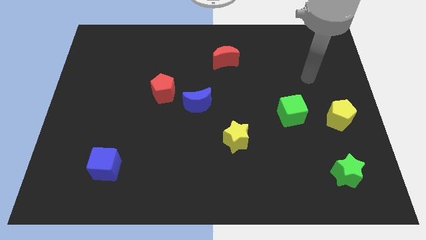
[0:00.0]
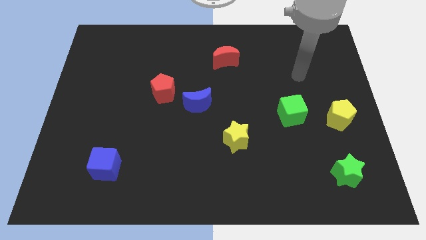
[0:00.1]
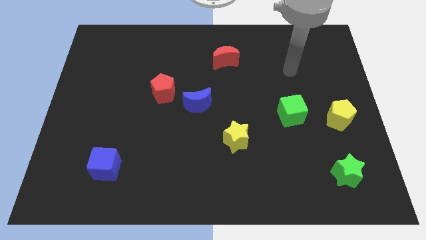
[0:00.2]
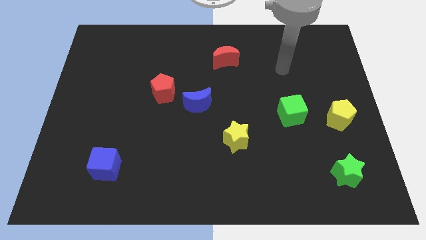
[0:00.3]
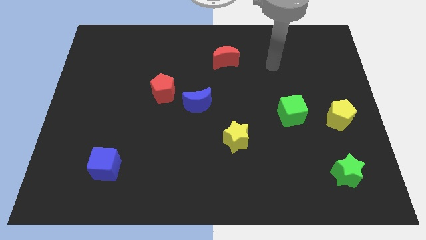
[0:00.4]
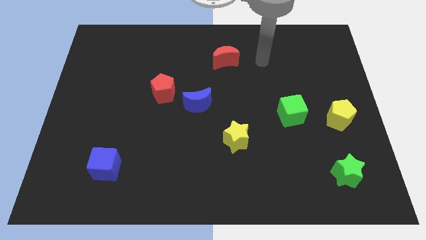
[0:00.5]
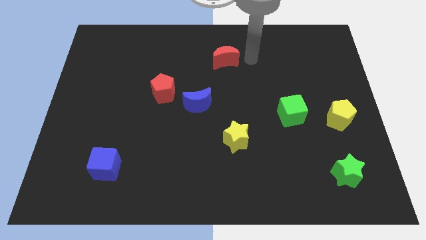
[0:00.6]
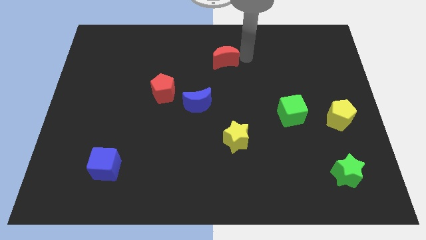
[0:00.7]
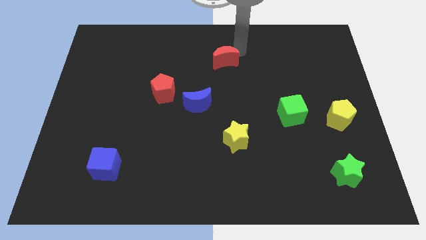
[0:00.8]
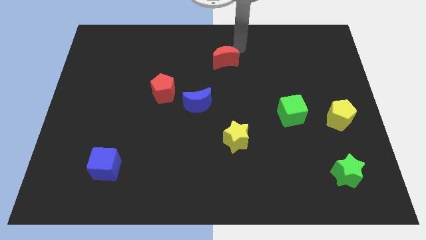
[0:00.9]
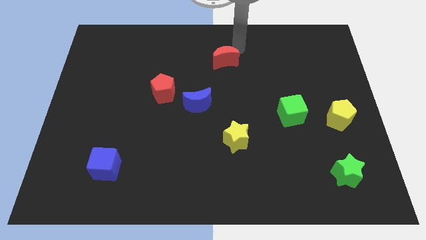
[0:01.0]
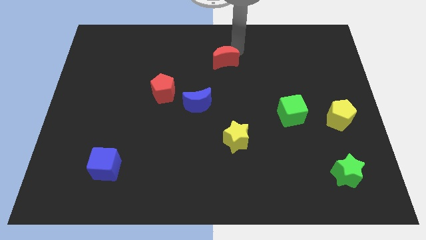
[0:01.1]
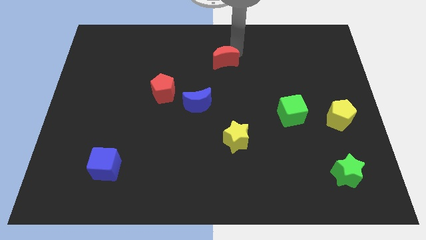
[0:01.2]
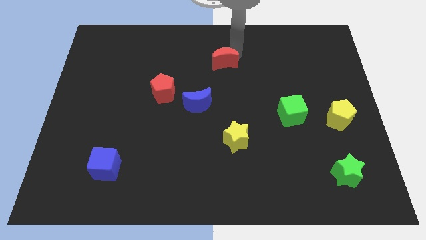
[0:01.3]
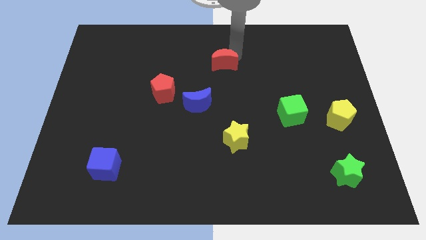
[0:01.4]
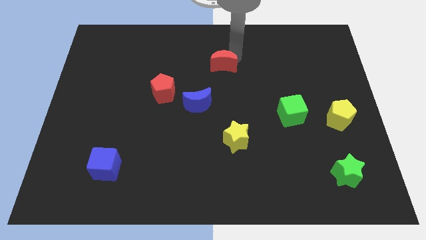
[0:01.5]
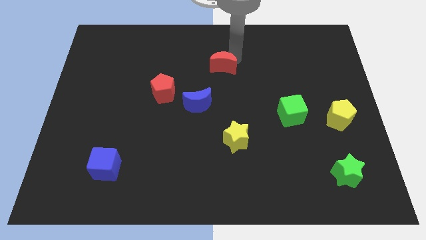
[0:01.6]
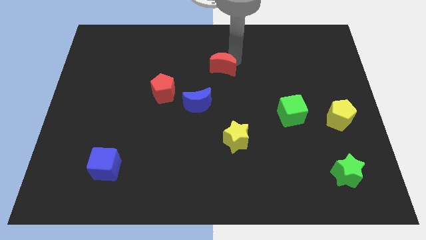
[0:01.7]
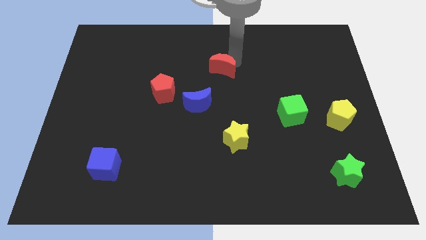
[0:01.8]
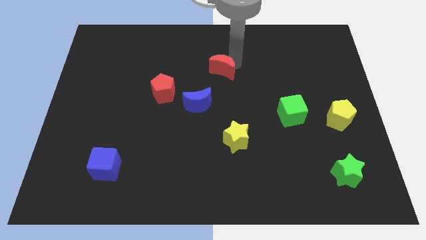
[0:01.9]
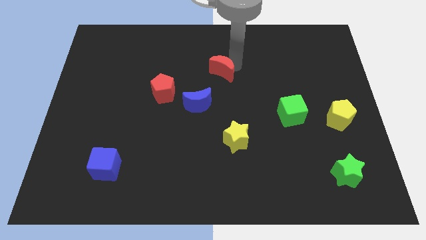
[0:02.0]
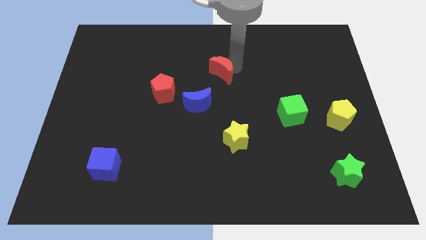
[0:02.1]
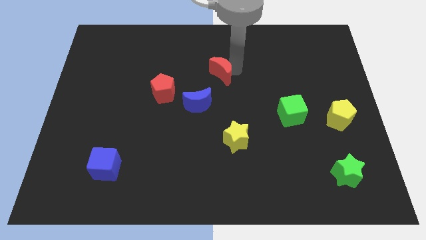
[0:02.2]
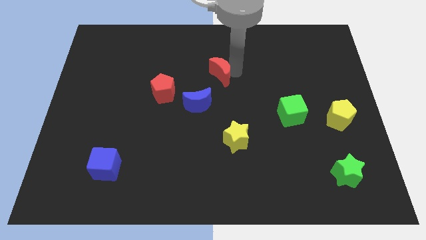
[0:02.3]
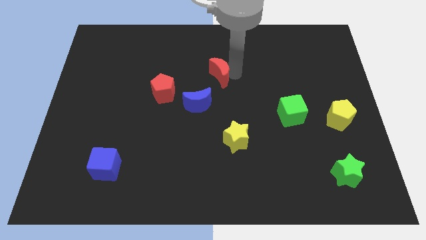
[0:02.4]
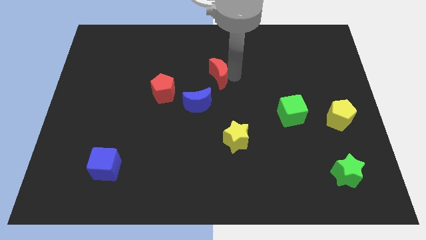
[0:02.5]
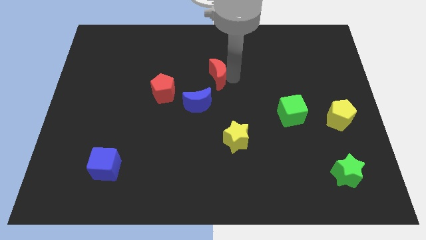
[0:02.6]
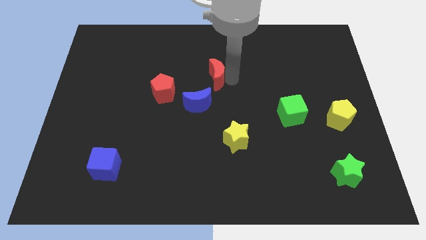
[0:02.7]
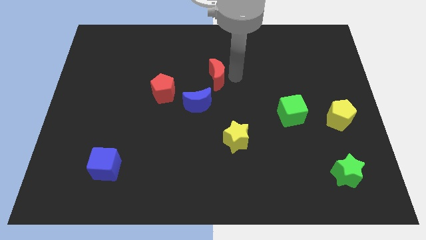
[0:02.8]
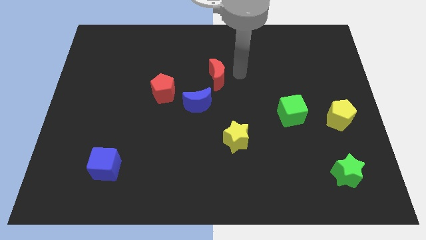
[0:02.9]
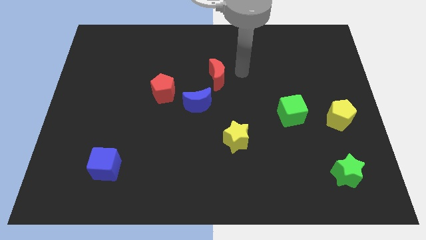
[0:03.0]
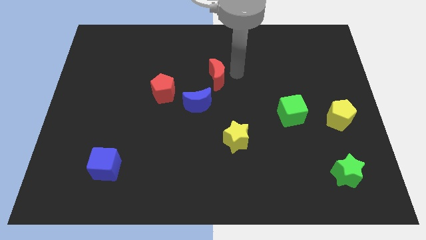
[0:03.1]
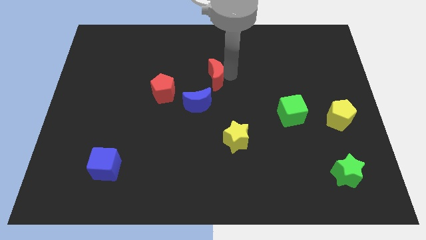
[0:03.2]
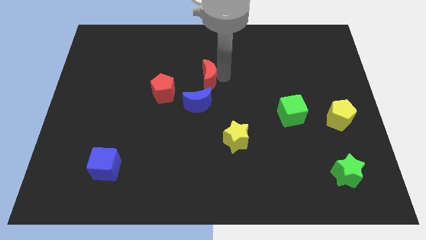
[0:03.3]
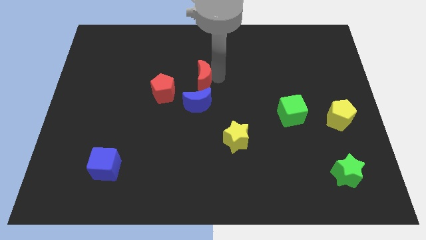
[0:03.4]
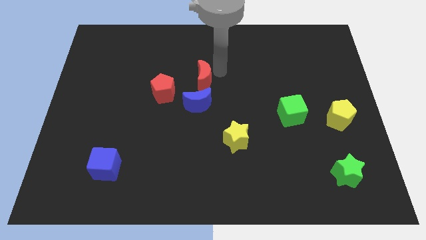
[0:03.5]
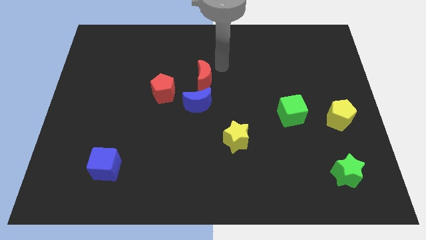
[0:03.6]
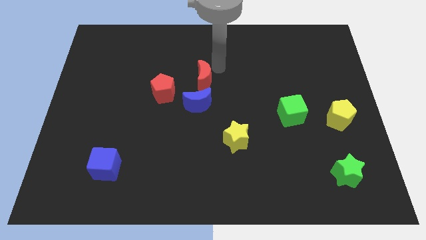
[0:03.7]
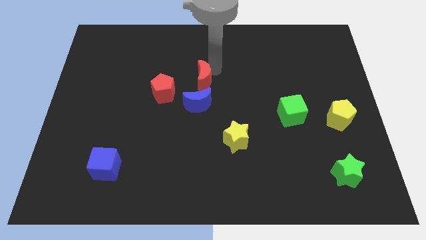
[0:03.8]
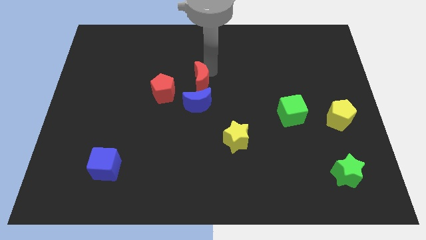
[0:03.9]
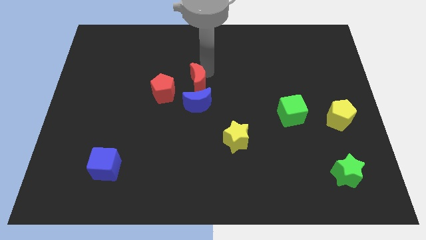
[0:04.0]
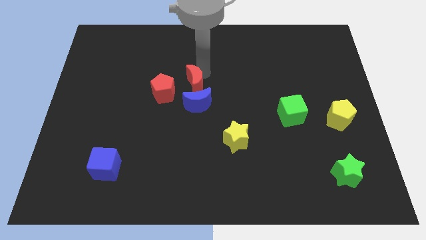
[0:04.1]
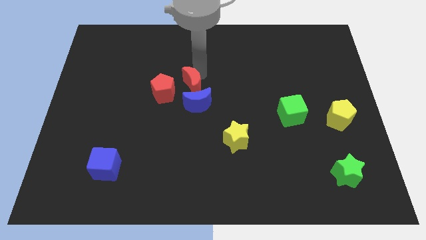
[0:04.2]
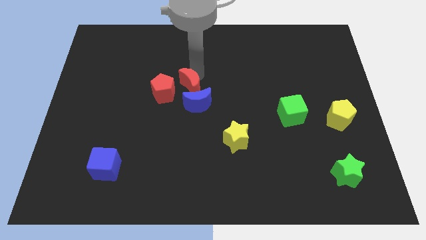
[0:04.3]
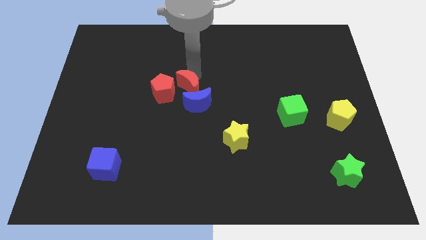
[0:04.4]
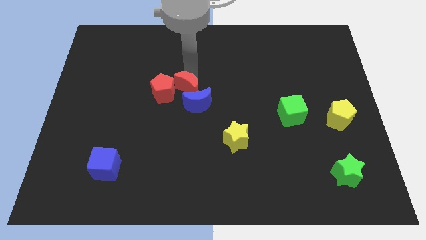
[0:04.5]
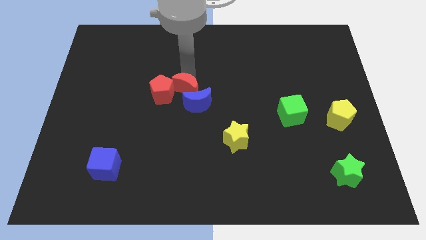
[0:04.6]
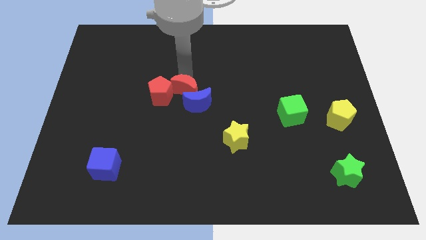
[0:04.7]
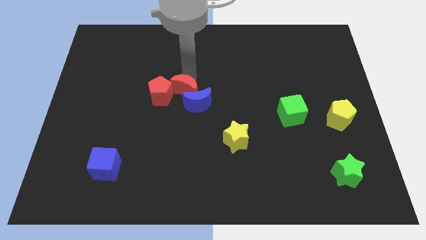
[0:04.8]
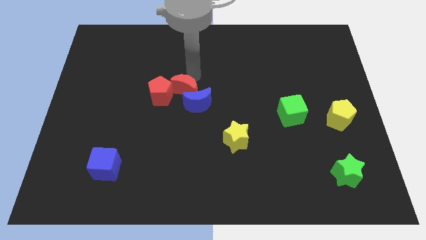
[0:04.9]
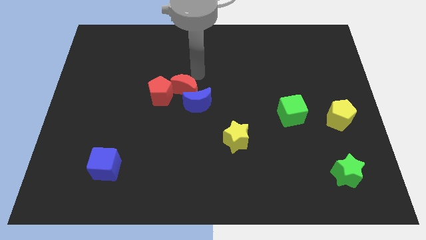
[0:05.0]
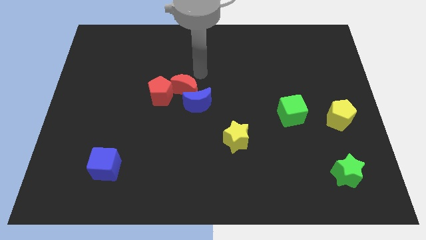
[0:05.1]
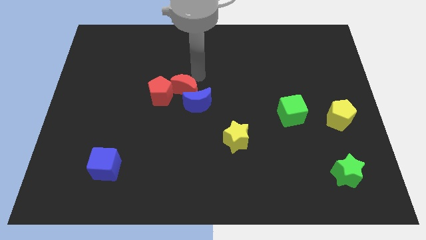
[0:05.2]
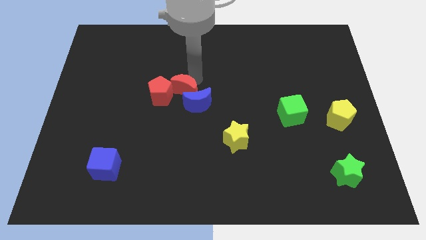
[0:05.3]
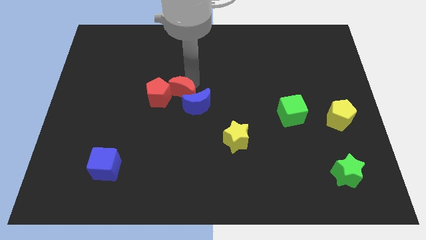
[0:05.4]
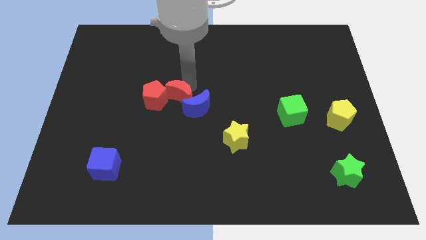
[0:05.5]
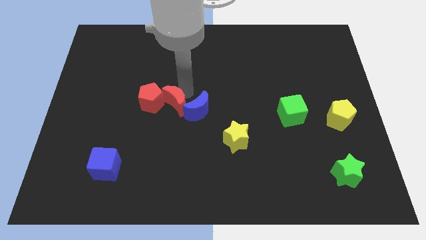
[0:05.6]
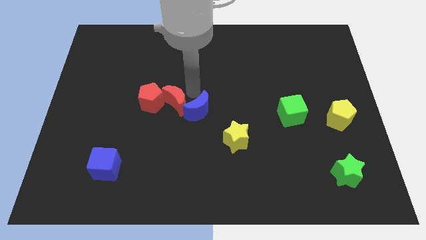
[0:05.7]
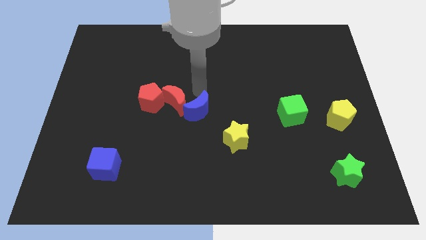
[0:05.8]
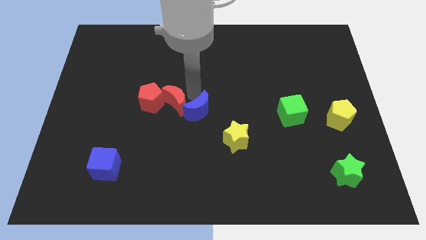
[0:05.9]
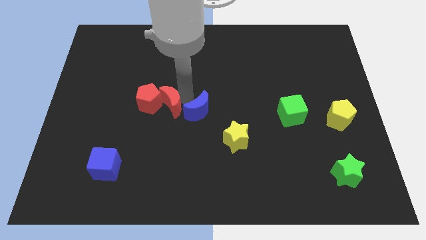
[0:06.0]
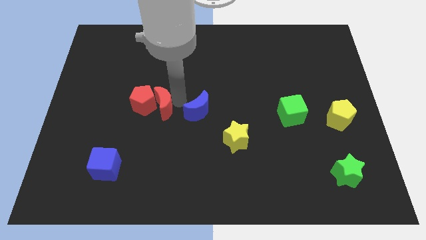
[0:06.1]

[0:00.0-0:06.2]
move the red moon downwards and to the left

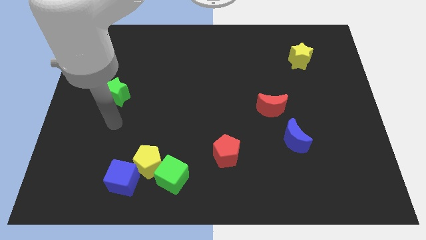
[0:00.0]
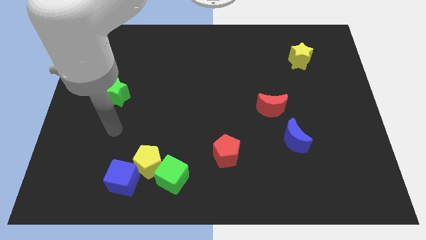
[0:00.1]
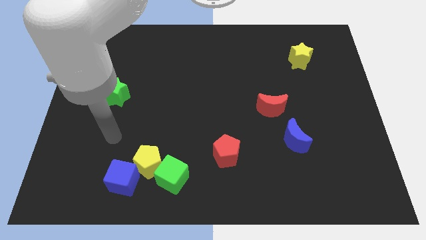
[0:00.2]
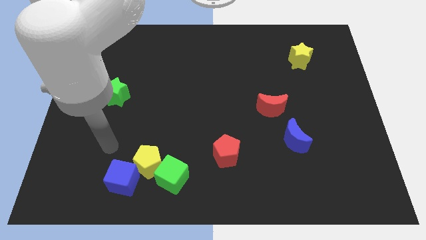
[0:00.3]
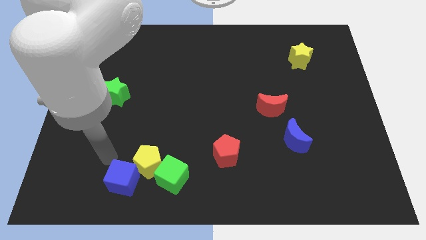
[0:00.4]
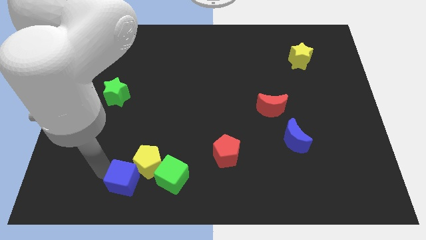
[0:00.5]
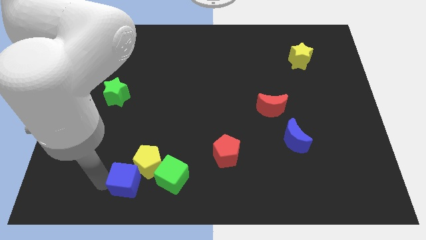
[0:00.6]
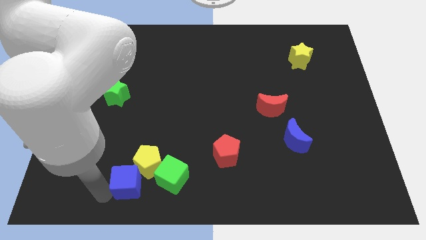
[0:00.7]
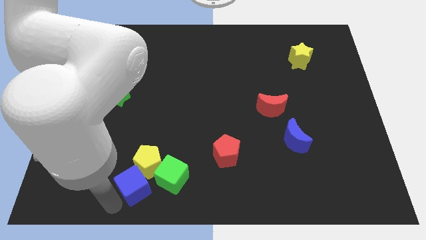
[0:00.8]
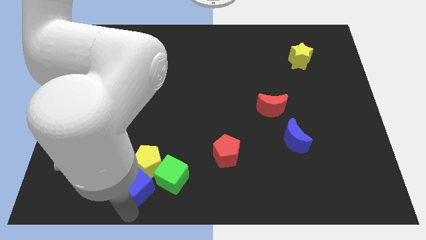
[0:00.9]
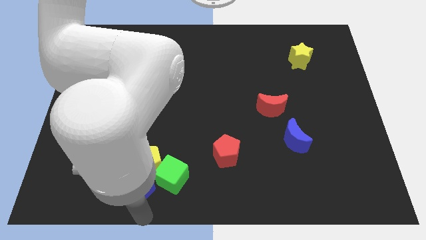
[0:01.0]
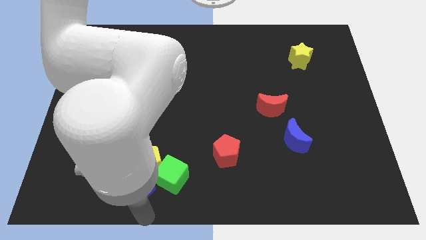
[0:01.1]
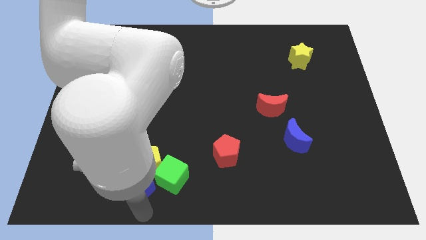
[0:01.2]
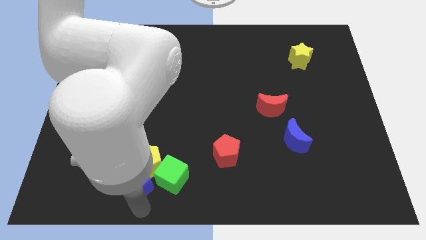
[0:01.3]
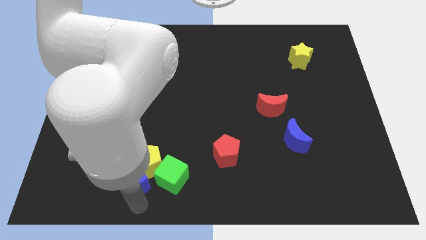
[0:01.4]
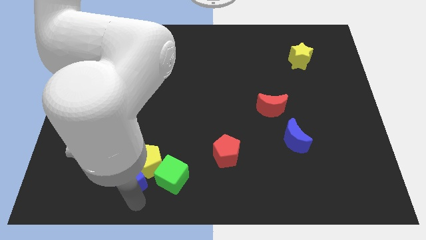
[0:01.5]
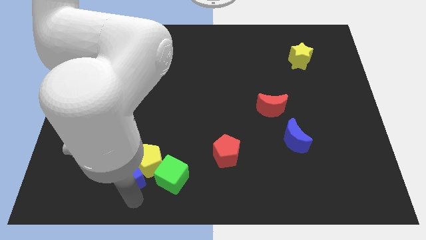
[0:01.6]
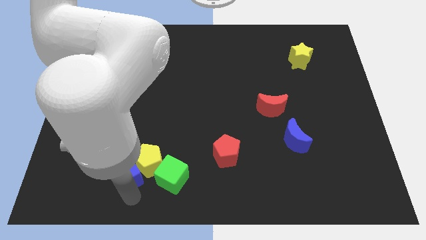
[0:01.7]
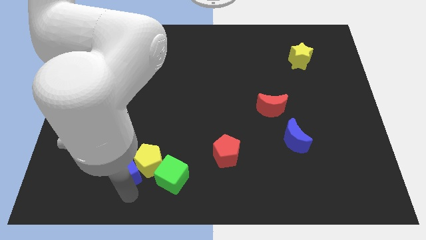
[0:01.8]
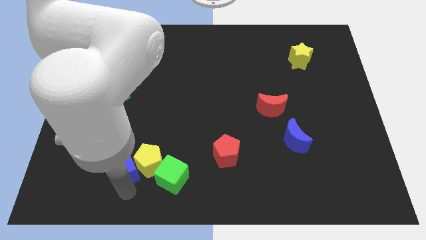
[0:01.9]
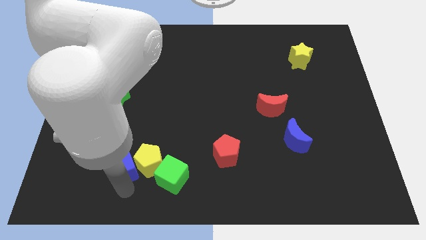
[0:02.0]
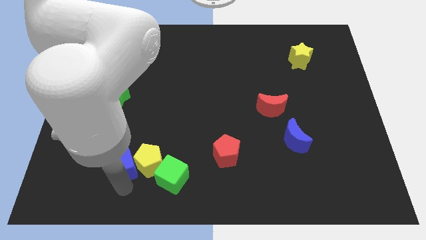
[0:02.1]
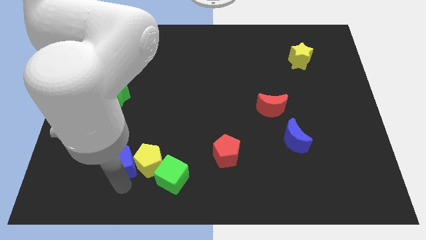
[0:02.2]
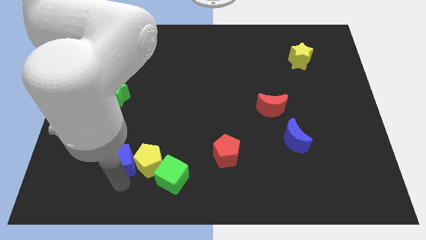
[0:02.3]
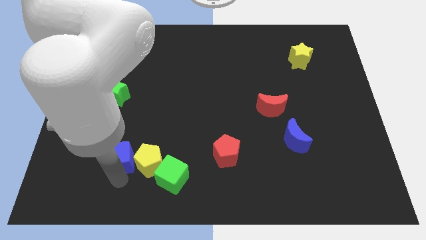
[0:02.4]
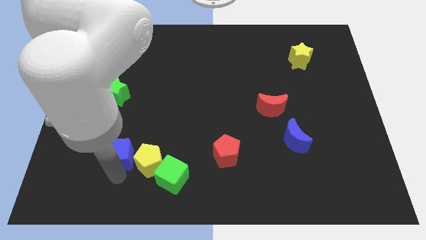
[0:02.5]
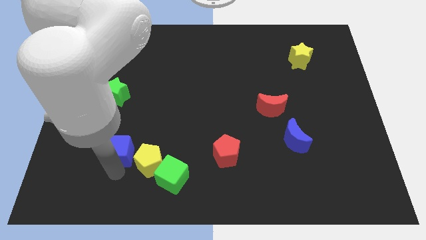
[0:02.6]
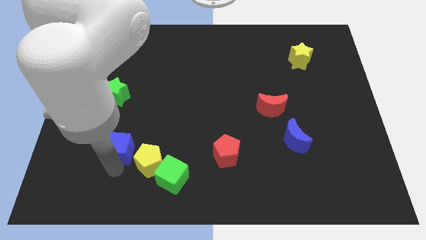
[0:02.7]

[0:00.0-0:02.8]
slide the blue cube a little up
